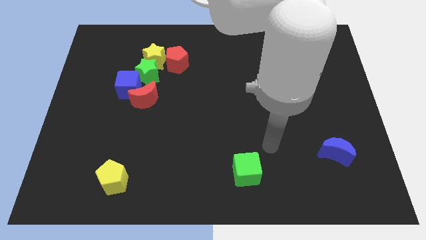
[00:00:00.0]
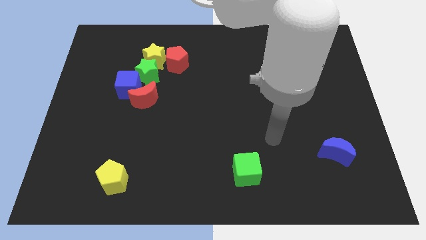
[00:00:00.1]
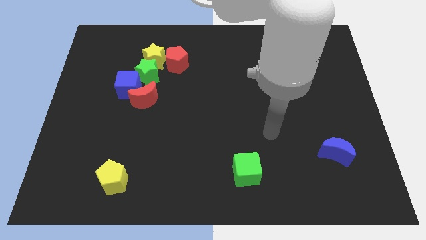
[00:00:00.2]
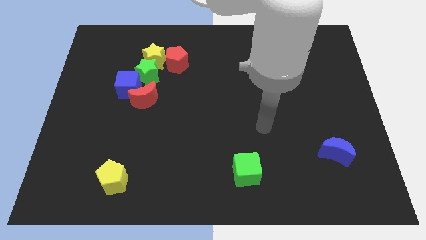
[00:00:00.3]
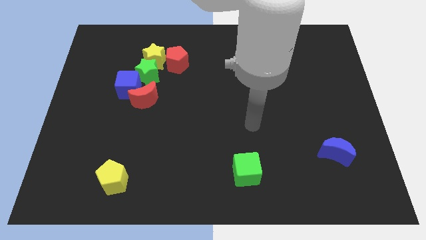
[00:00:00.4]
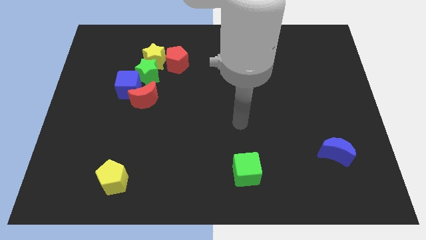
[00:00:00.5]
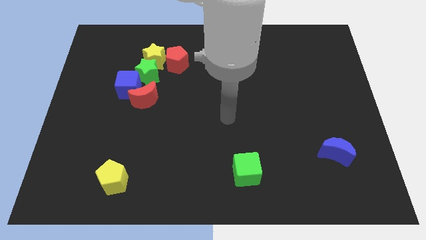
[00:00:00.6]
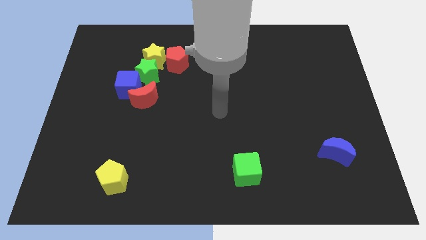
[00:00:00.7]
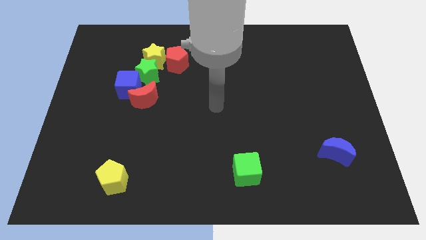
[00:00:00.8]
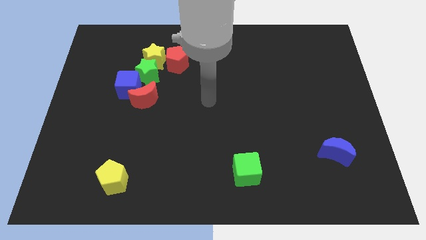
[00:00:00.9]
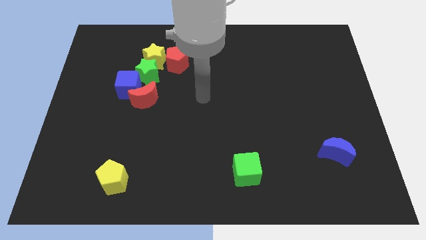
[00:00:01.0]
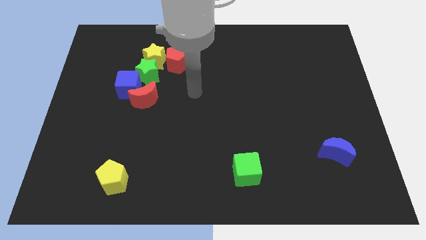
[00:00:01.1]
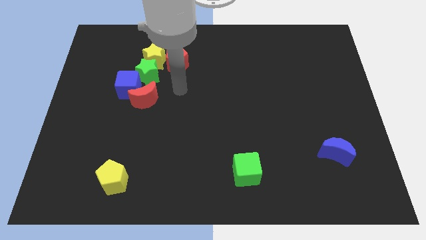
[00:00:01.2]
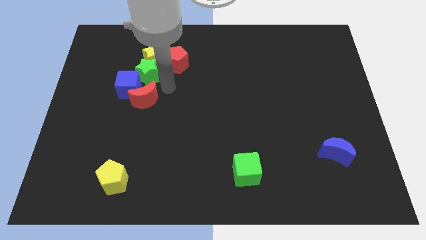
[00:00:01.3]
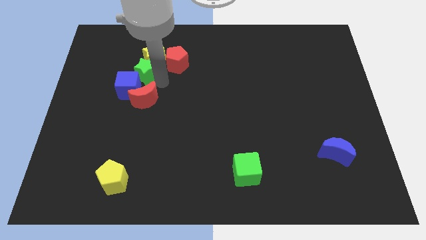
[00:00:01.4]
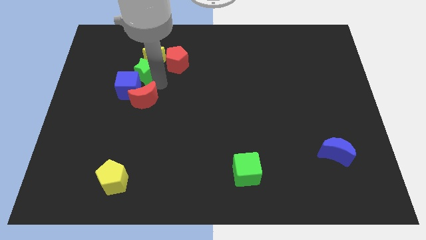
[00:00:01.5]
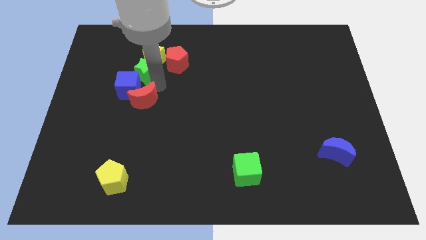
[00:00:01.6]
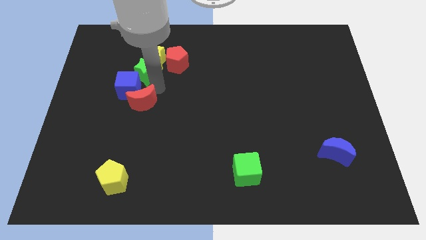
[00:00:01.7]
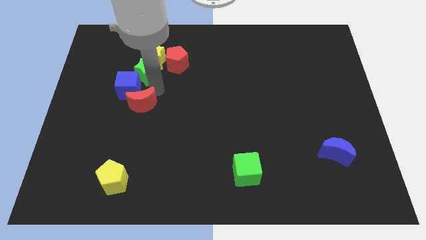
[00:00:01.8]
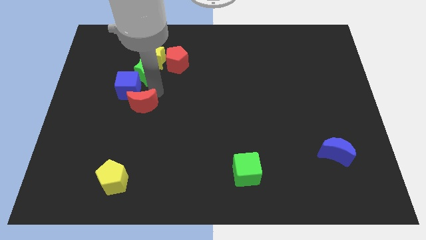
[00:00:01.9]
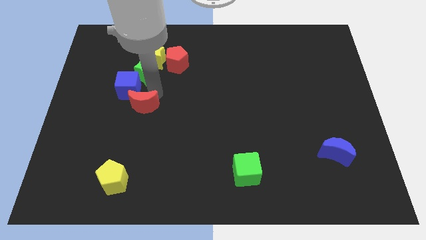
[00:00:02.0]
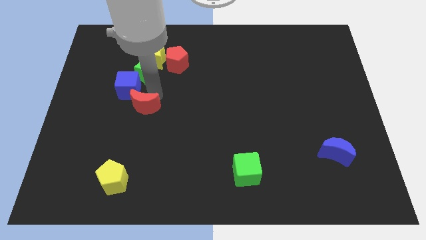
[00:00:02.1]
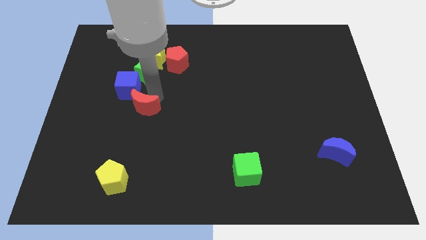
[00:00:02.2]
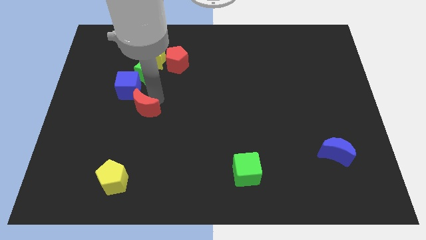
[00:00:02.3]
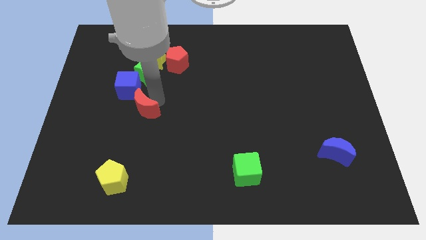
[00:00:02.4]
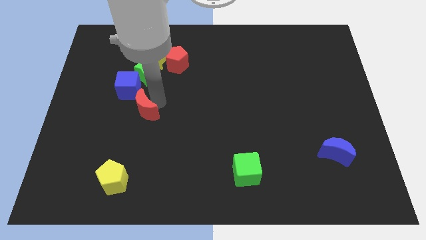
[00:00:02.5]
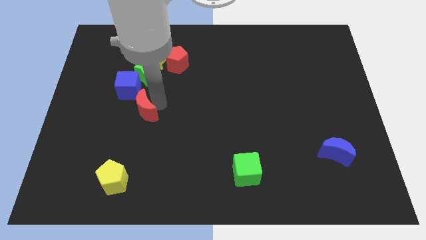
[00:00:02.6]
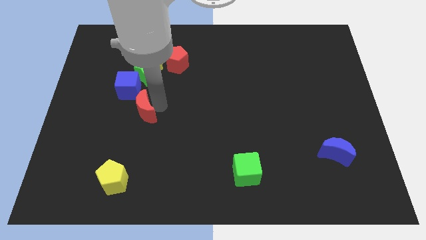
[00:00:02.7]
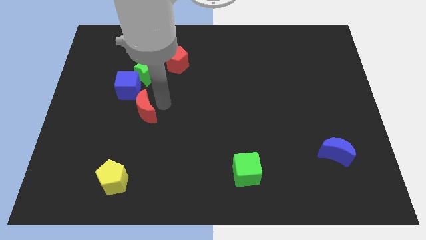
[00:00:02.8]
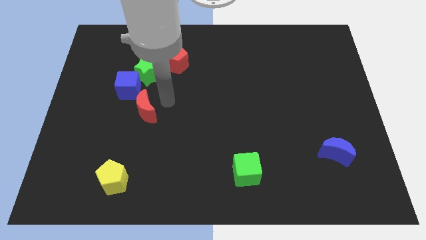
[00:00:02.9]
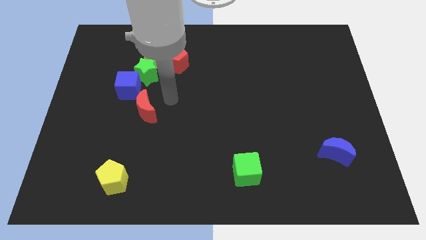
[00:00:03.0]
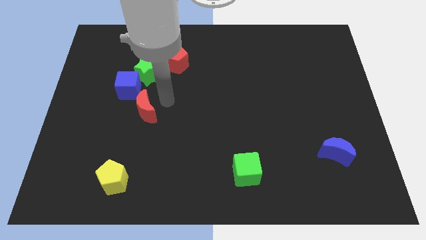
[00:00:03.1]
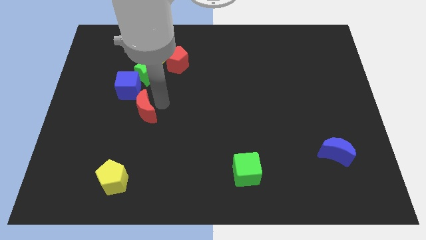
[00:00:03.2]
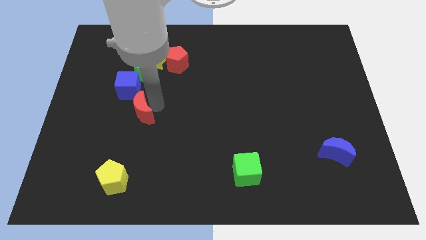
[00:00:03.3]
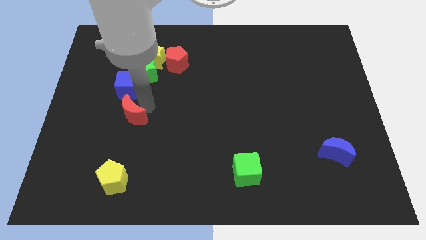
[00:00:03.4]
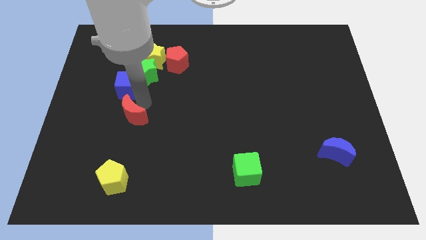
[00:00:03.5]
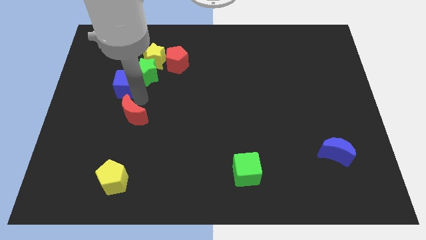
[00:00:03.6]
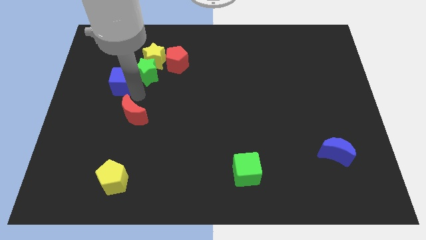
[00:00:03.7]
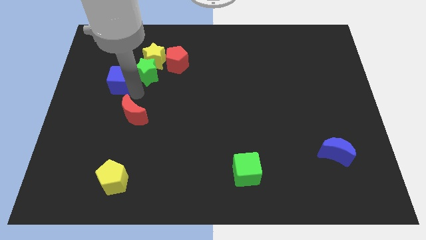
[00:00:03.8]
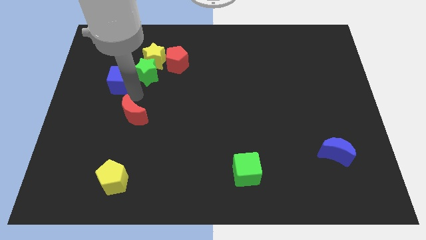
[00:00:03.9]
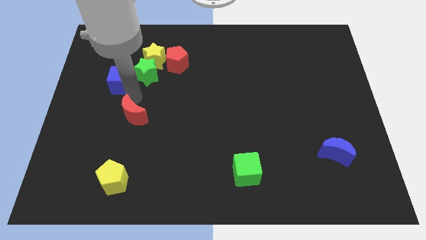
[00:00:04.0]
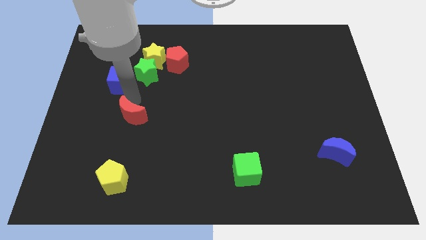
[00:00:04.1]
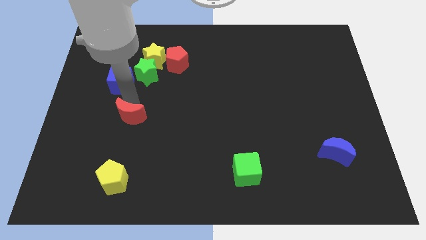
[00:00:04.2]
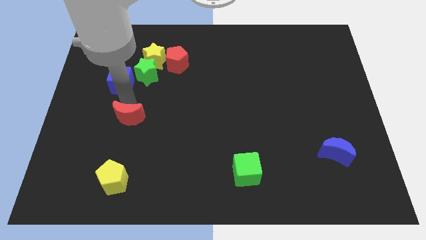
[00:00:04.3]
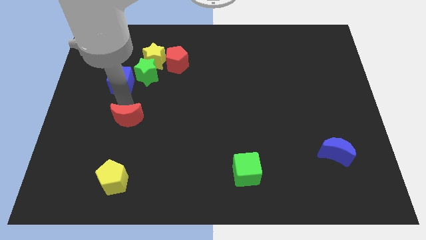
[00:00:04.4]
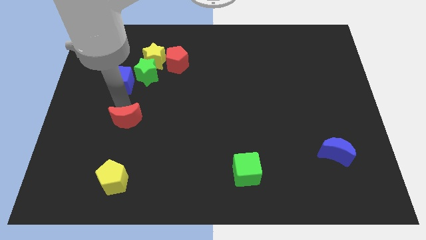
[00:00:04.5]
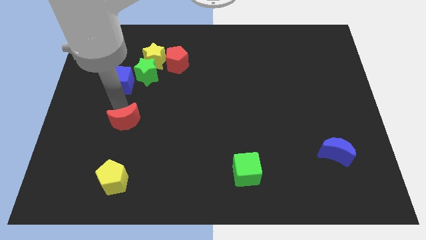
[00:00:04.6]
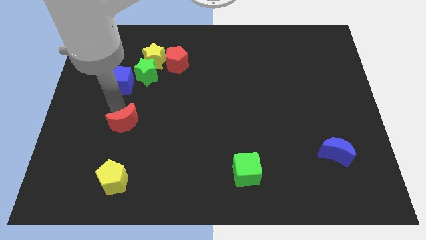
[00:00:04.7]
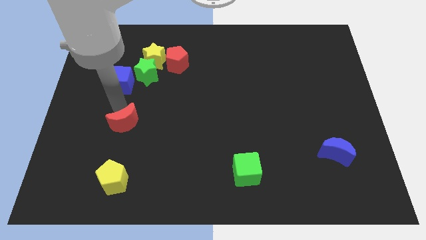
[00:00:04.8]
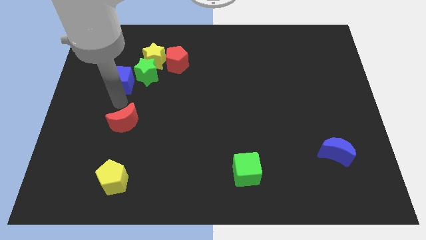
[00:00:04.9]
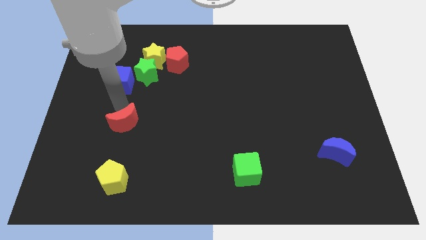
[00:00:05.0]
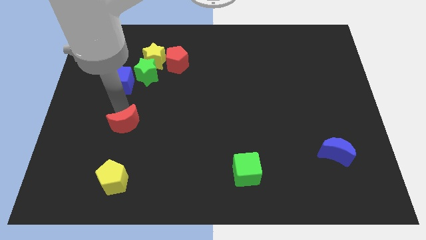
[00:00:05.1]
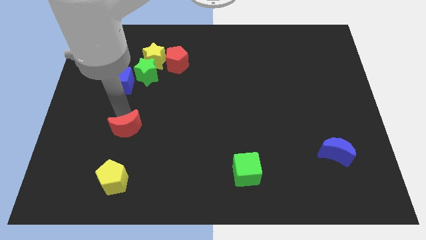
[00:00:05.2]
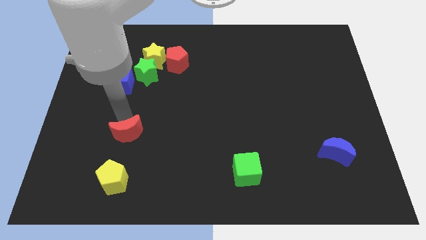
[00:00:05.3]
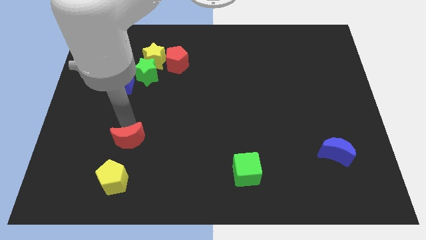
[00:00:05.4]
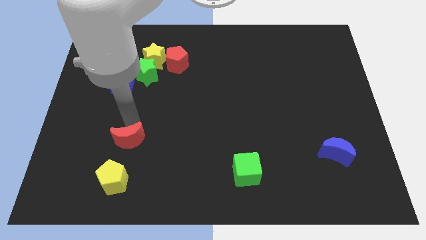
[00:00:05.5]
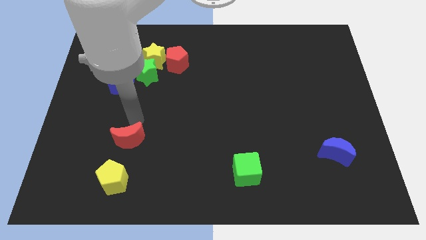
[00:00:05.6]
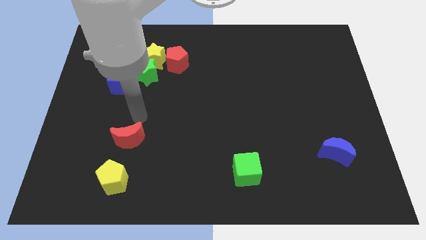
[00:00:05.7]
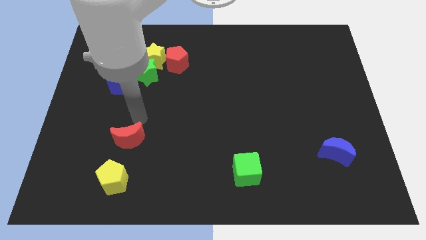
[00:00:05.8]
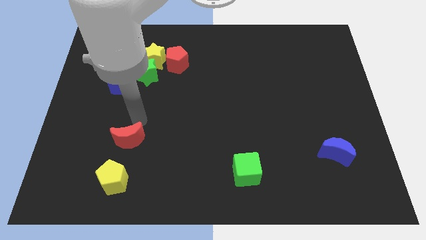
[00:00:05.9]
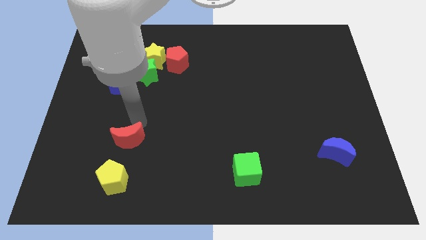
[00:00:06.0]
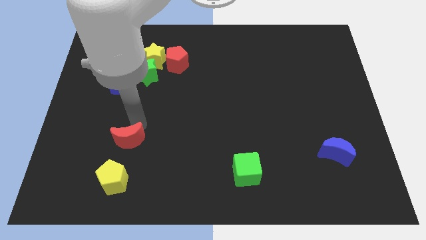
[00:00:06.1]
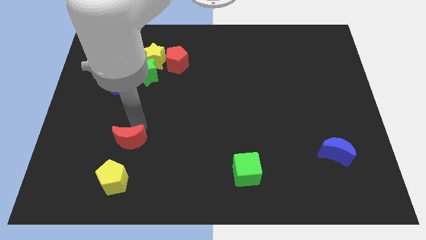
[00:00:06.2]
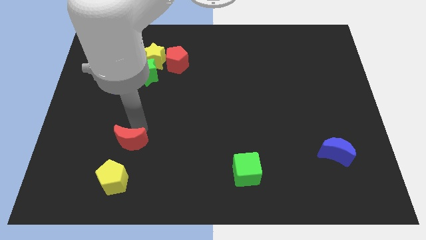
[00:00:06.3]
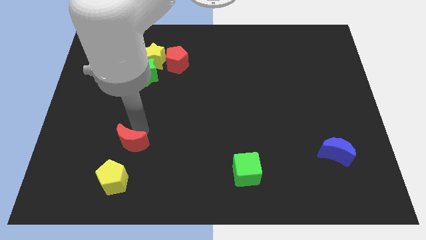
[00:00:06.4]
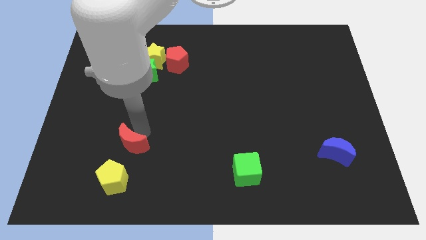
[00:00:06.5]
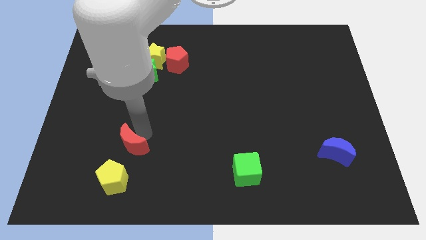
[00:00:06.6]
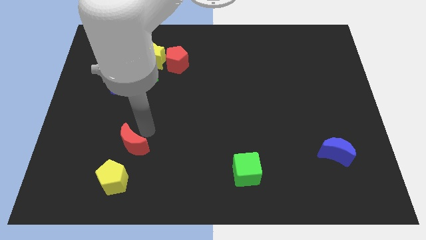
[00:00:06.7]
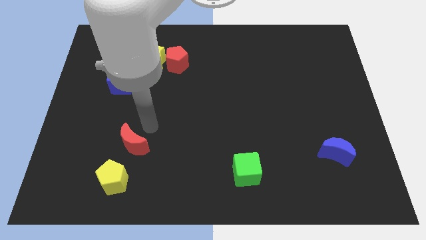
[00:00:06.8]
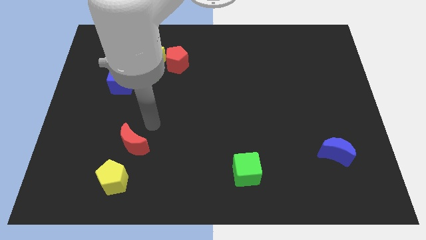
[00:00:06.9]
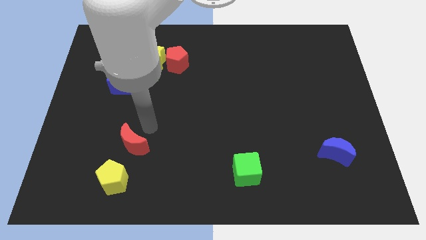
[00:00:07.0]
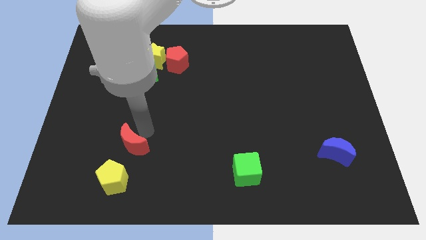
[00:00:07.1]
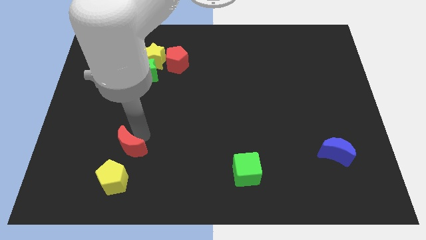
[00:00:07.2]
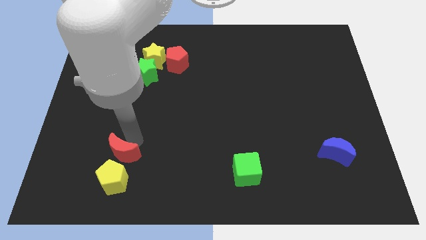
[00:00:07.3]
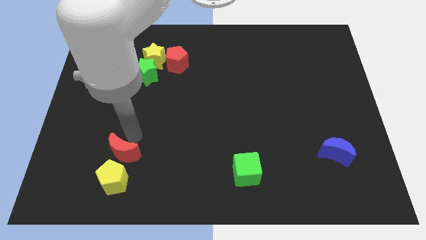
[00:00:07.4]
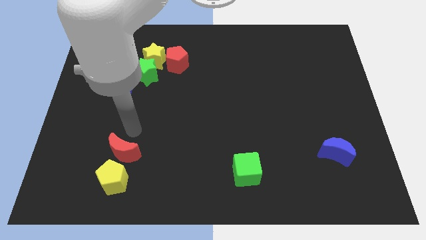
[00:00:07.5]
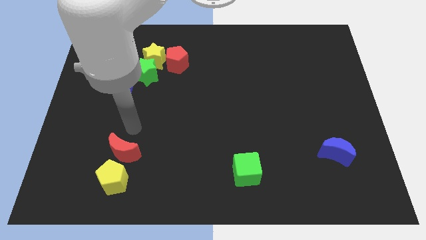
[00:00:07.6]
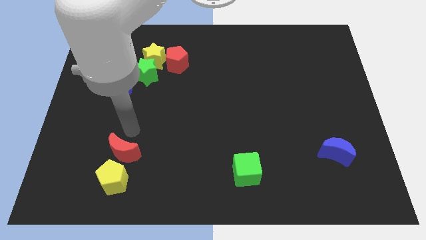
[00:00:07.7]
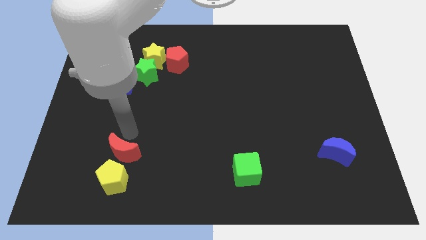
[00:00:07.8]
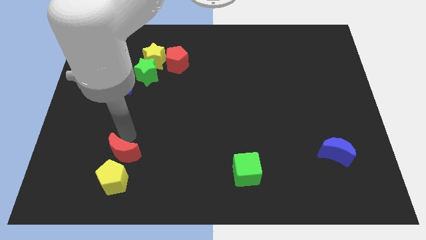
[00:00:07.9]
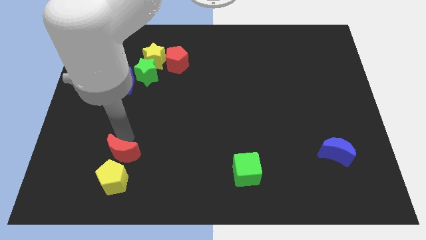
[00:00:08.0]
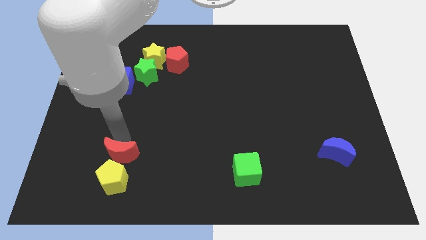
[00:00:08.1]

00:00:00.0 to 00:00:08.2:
push the red moon to the yellow pentagon
